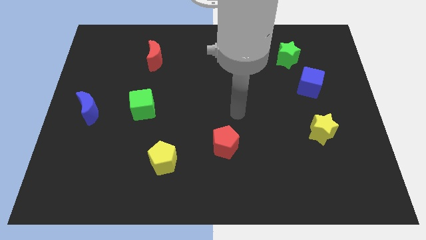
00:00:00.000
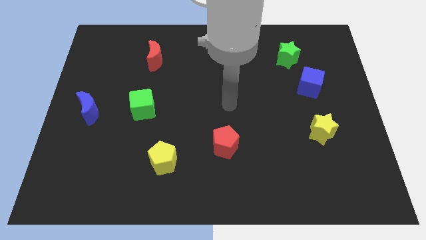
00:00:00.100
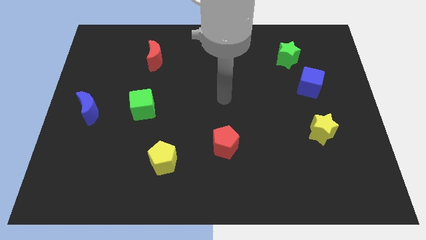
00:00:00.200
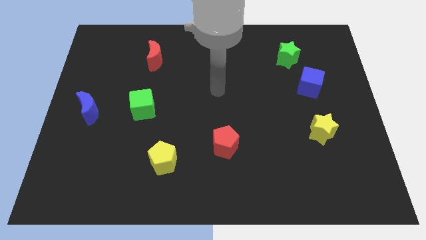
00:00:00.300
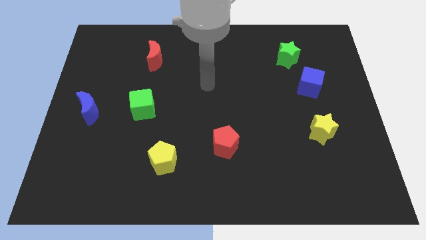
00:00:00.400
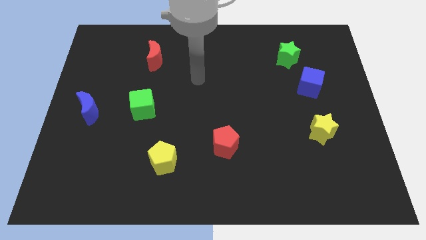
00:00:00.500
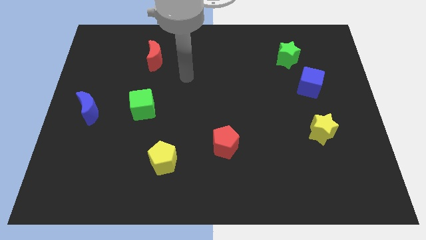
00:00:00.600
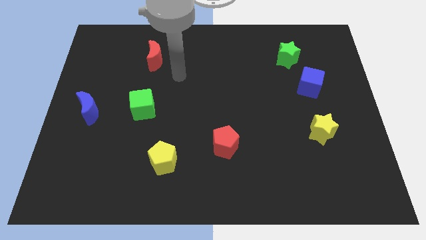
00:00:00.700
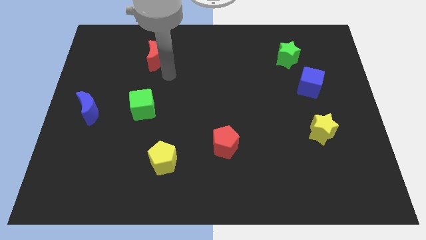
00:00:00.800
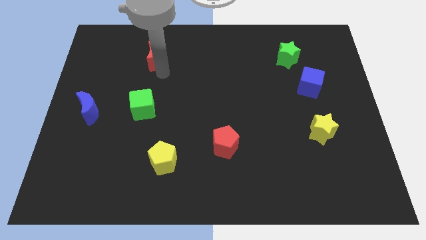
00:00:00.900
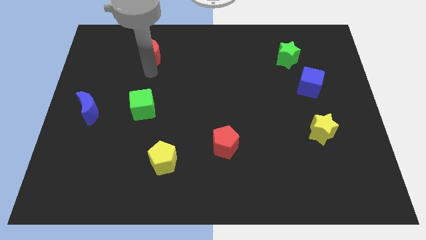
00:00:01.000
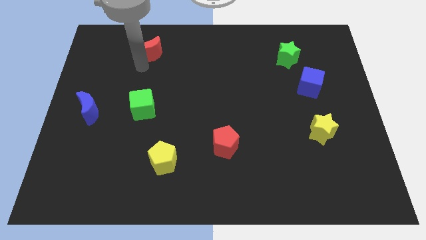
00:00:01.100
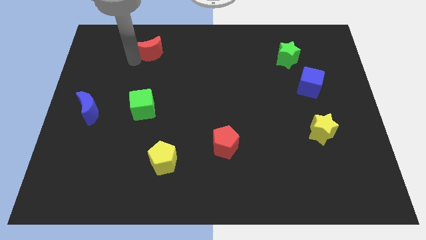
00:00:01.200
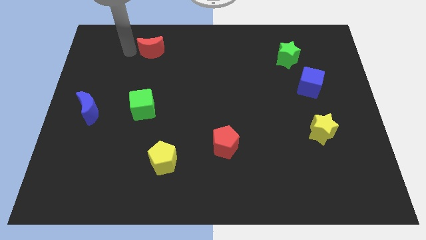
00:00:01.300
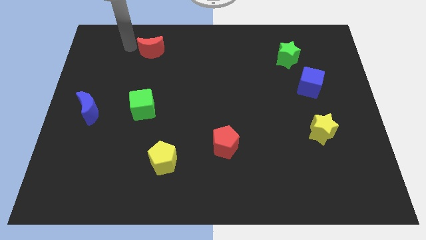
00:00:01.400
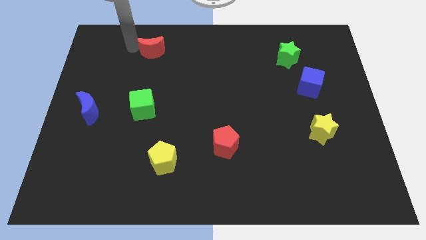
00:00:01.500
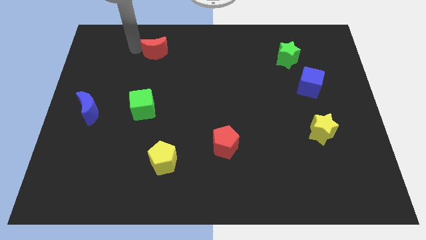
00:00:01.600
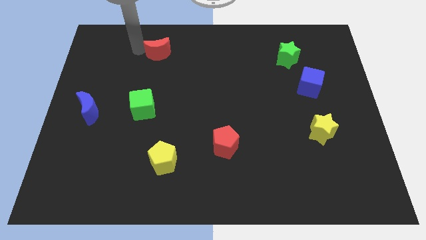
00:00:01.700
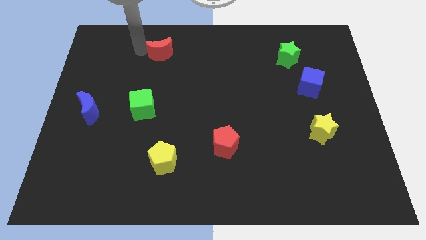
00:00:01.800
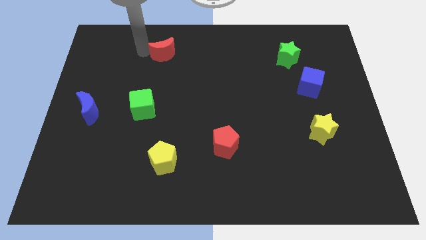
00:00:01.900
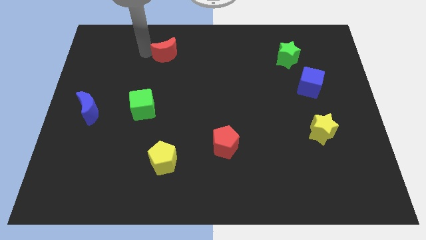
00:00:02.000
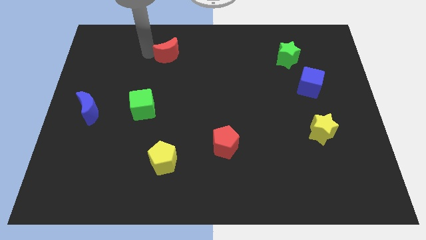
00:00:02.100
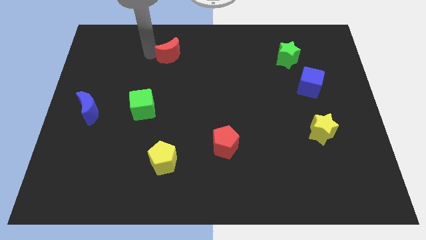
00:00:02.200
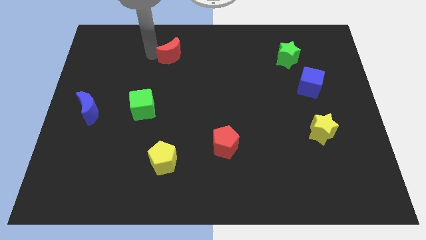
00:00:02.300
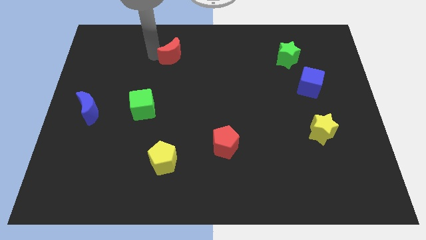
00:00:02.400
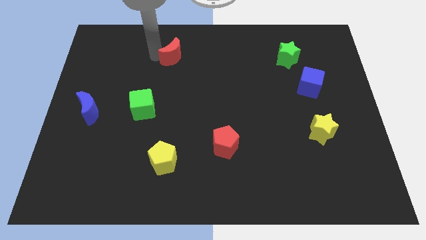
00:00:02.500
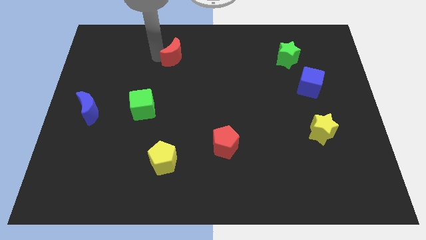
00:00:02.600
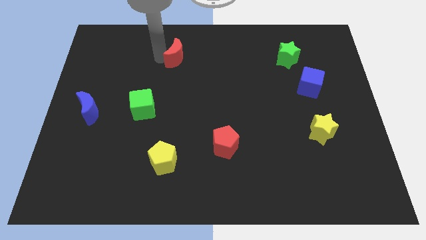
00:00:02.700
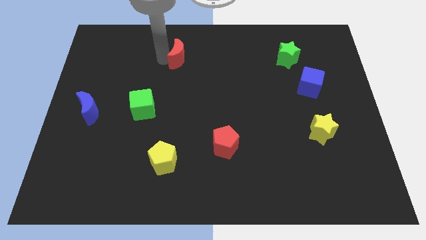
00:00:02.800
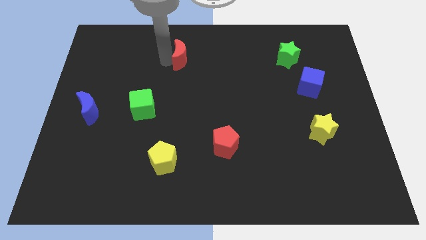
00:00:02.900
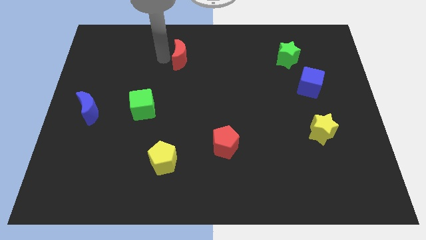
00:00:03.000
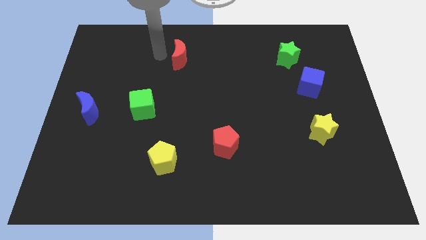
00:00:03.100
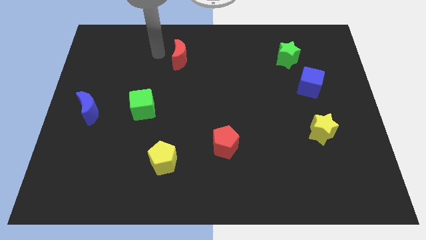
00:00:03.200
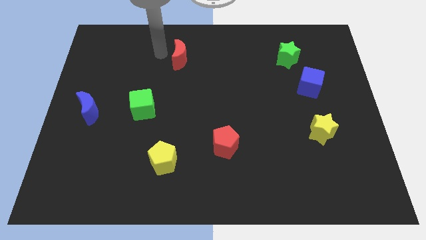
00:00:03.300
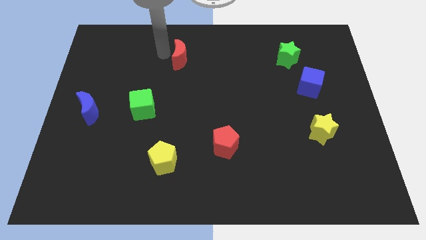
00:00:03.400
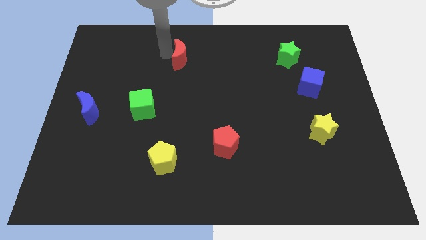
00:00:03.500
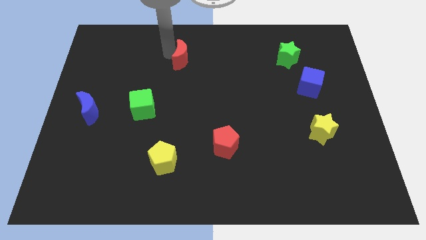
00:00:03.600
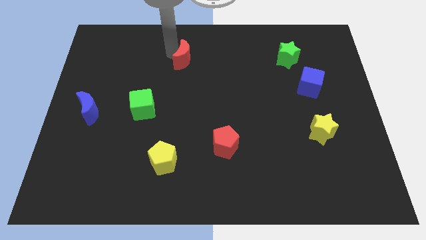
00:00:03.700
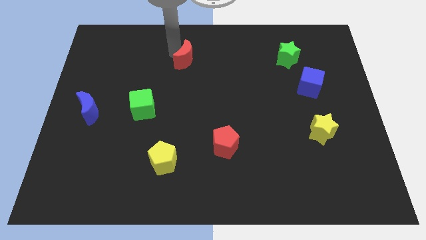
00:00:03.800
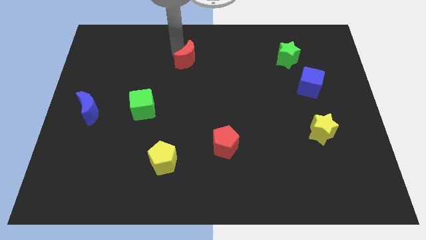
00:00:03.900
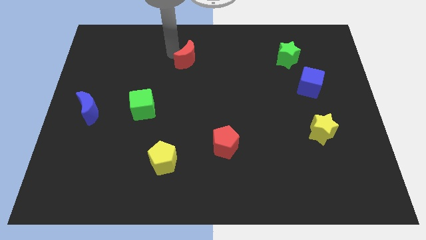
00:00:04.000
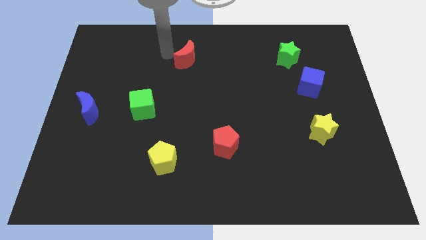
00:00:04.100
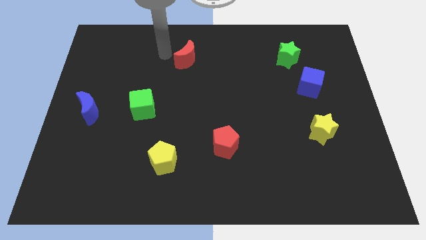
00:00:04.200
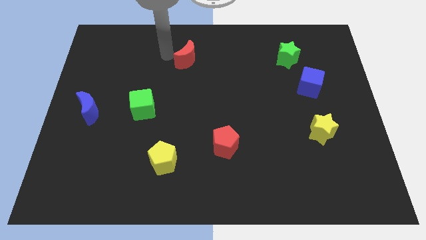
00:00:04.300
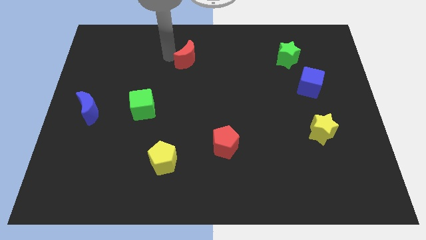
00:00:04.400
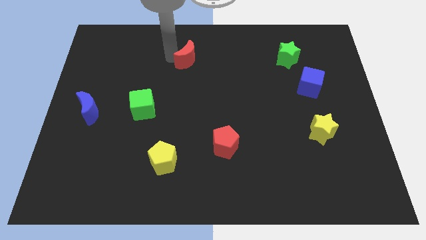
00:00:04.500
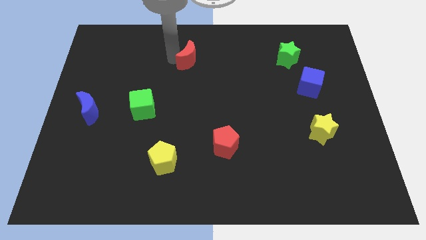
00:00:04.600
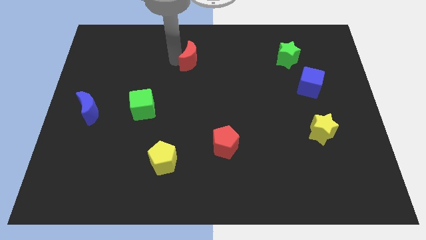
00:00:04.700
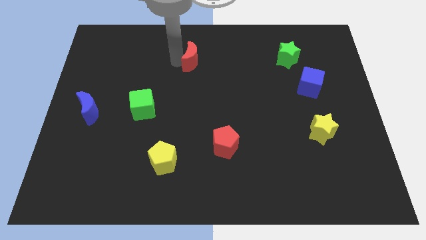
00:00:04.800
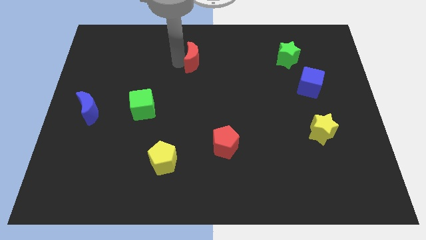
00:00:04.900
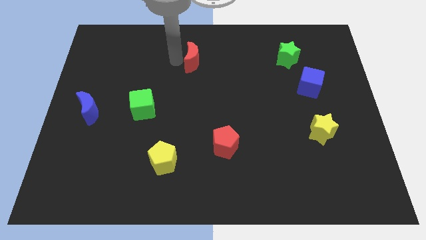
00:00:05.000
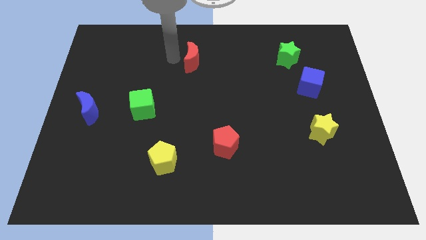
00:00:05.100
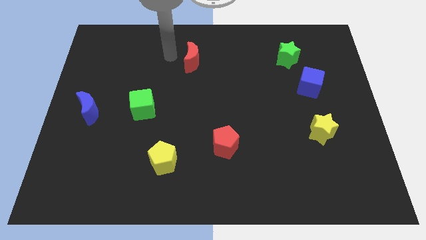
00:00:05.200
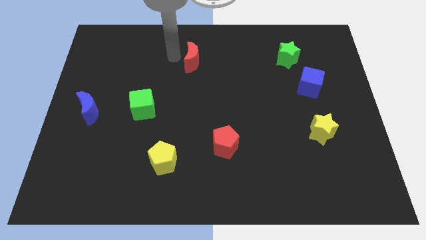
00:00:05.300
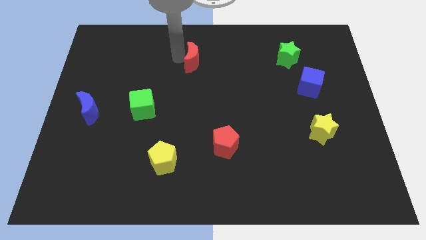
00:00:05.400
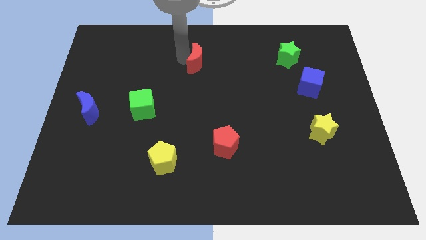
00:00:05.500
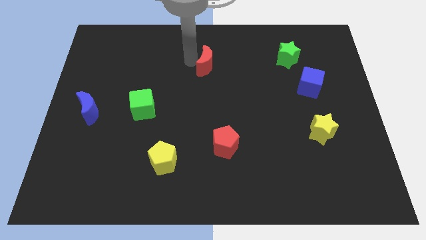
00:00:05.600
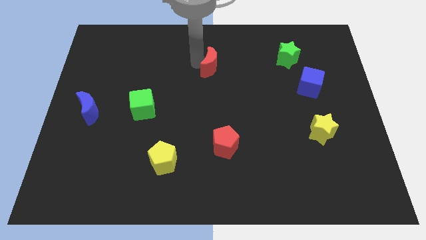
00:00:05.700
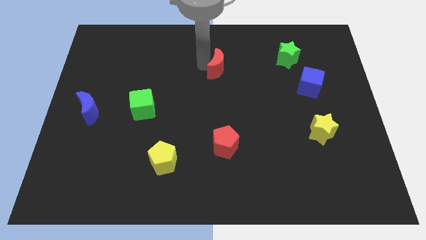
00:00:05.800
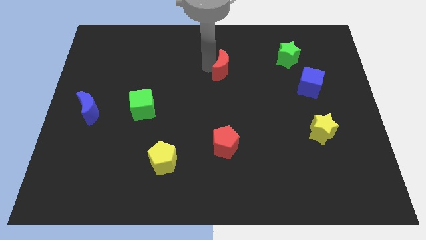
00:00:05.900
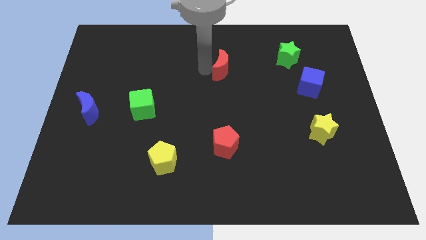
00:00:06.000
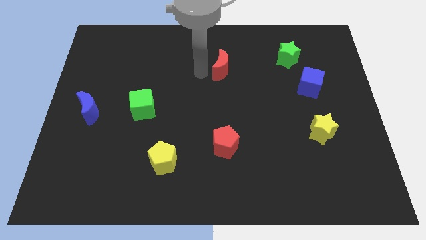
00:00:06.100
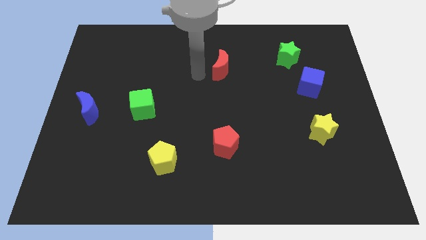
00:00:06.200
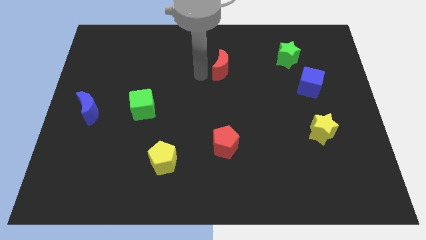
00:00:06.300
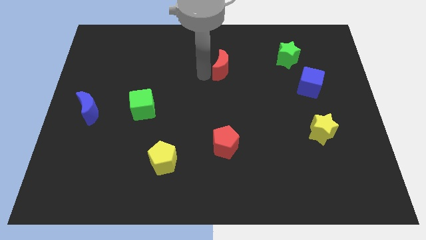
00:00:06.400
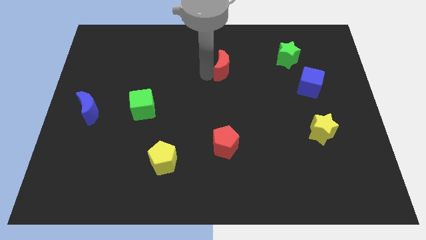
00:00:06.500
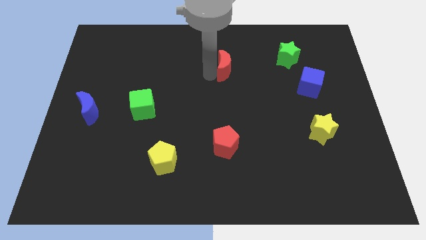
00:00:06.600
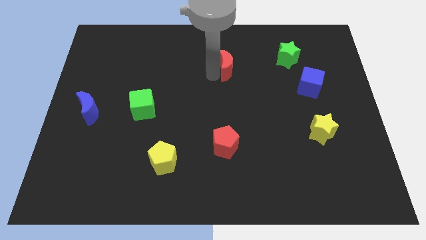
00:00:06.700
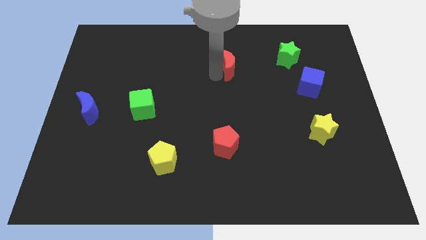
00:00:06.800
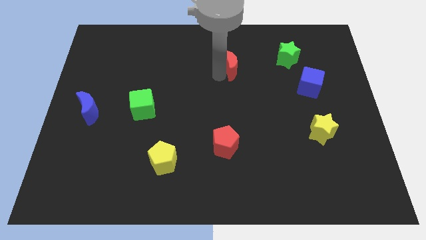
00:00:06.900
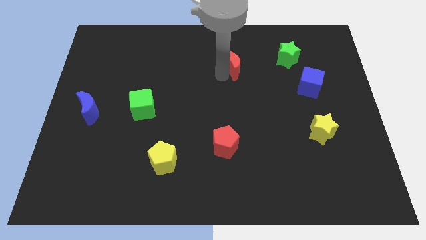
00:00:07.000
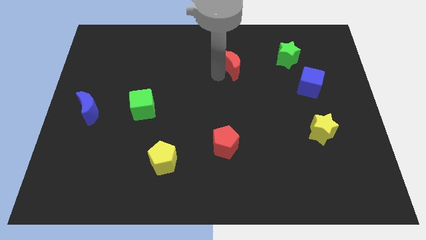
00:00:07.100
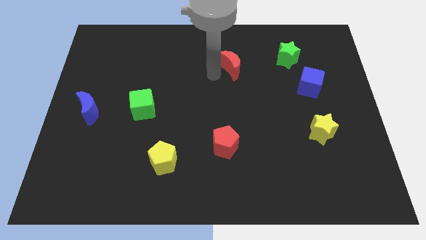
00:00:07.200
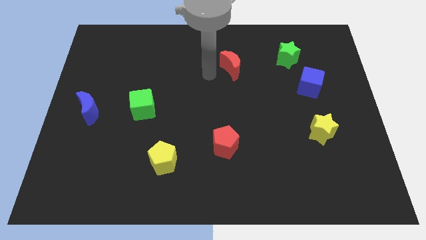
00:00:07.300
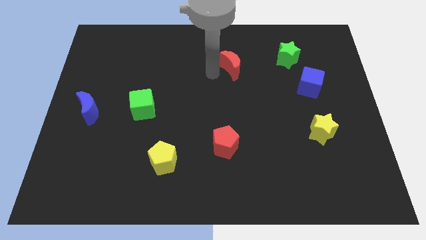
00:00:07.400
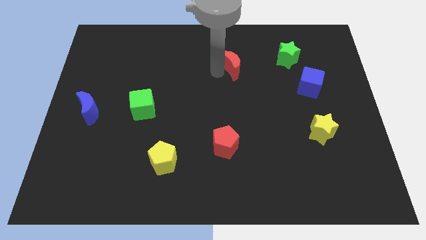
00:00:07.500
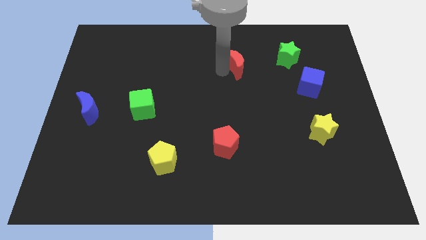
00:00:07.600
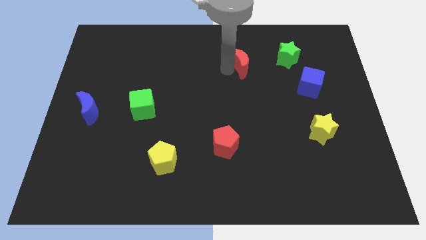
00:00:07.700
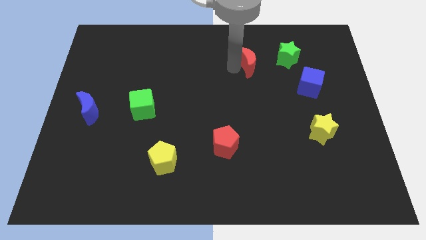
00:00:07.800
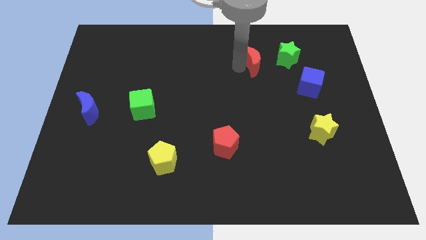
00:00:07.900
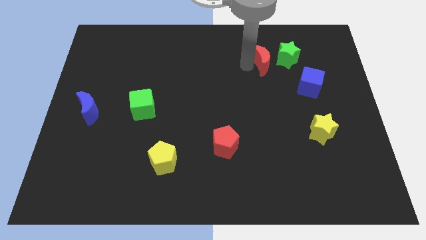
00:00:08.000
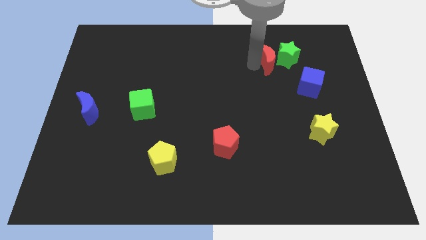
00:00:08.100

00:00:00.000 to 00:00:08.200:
move the red moon close to the green star
